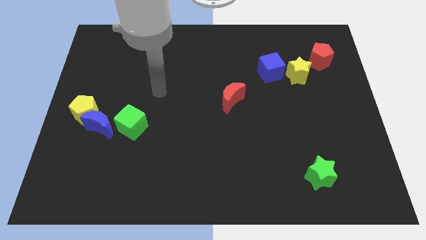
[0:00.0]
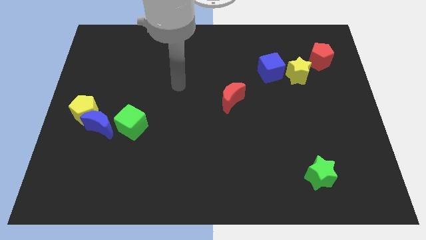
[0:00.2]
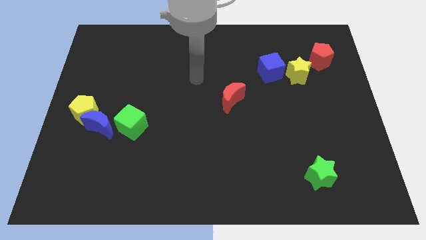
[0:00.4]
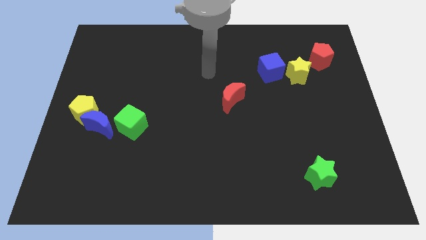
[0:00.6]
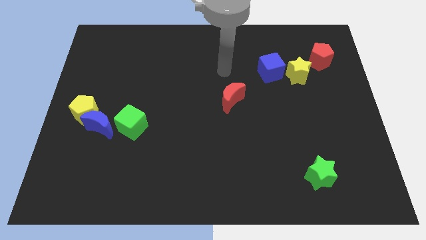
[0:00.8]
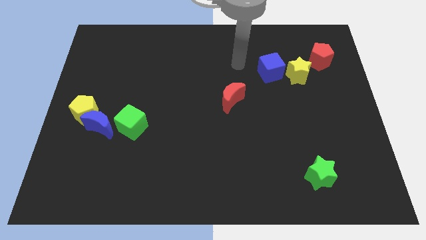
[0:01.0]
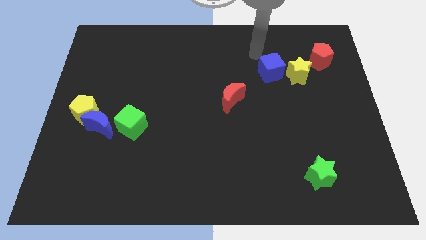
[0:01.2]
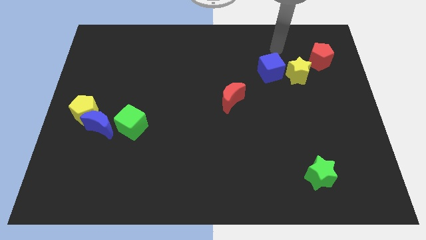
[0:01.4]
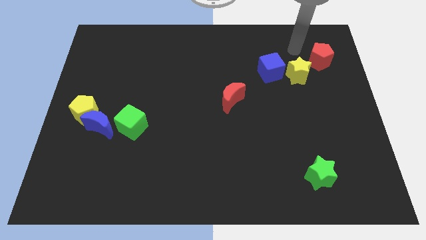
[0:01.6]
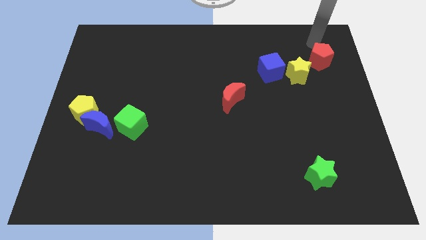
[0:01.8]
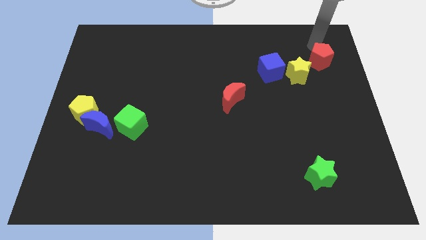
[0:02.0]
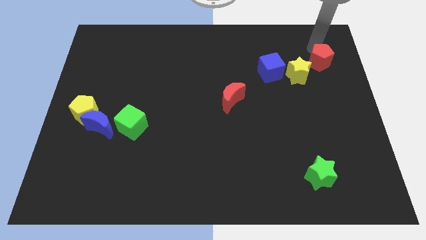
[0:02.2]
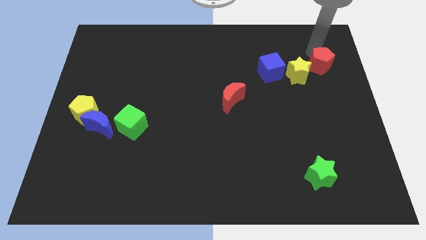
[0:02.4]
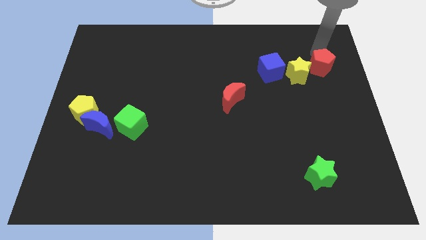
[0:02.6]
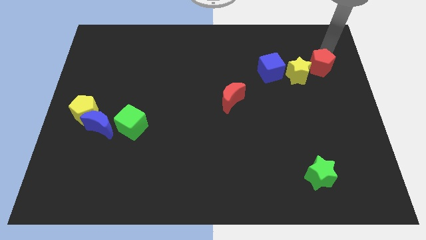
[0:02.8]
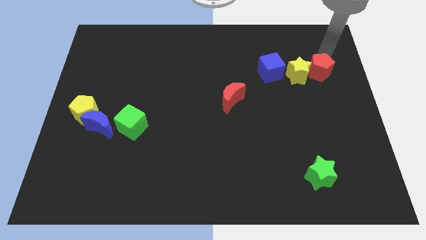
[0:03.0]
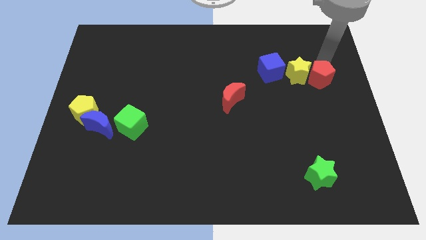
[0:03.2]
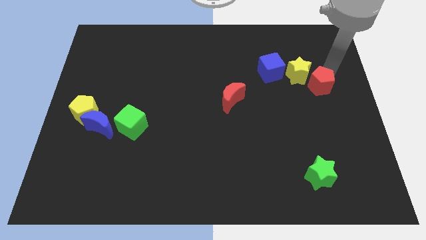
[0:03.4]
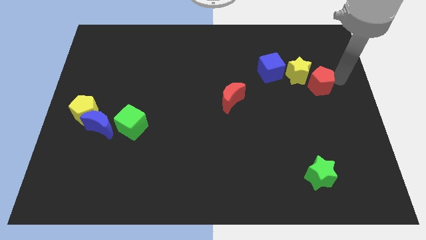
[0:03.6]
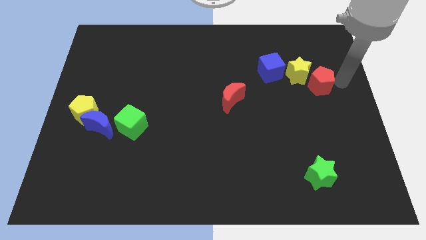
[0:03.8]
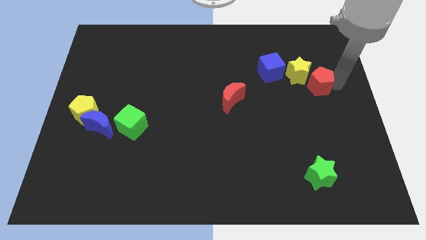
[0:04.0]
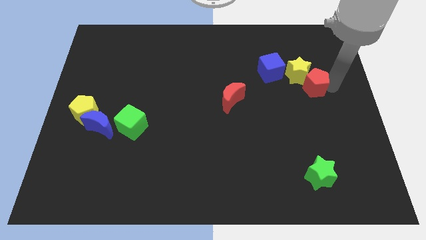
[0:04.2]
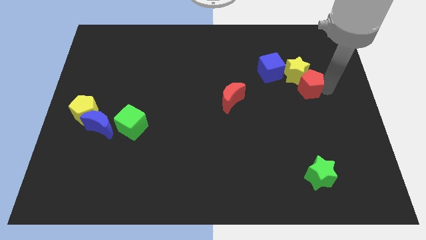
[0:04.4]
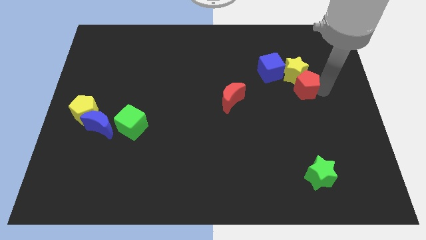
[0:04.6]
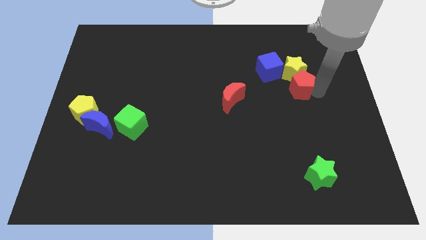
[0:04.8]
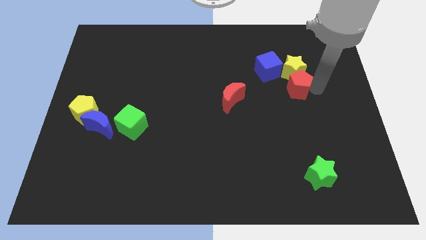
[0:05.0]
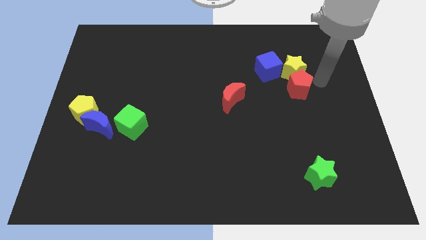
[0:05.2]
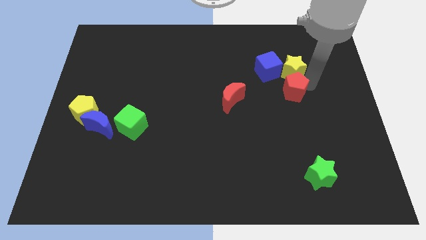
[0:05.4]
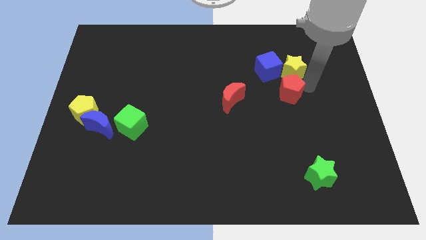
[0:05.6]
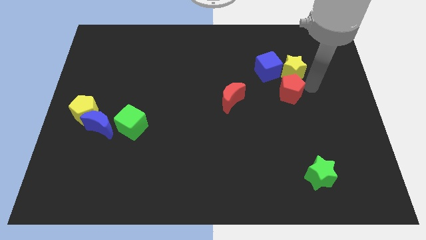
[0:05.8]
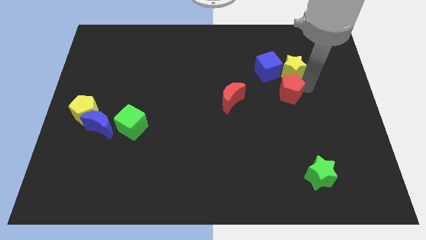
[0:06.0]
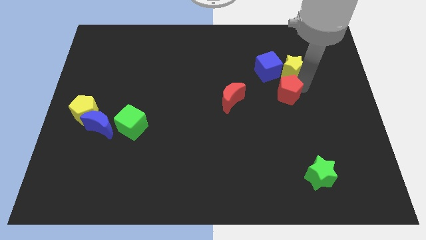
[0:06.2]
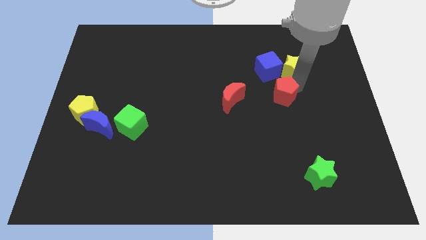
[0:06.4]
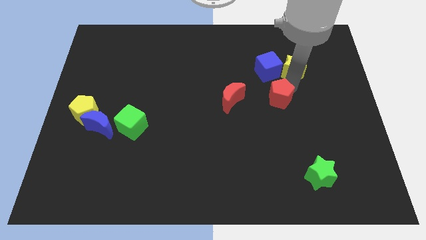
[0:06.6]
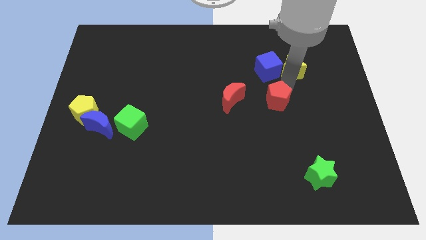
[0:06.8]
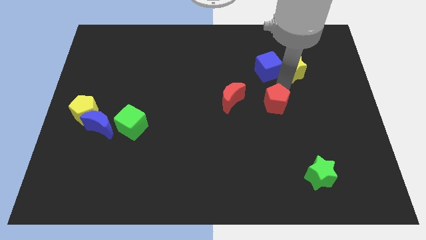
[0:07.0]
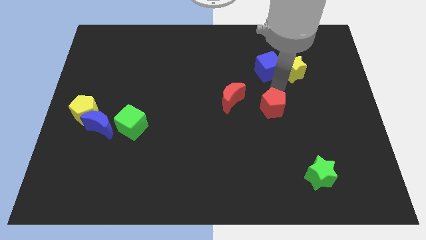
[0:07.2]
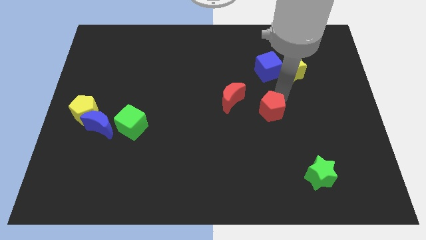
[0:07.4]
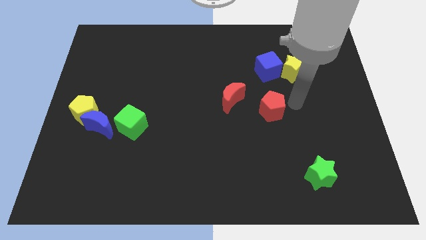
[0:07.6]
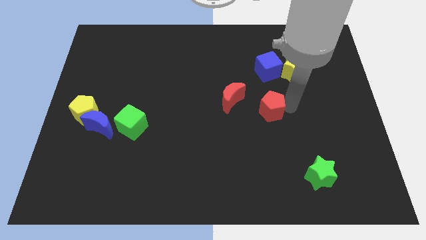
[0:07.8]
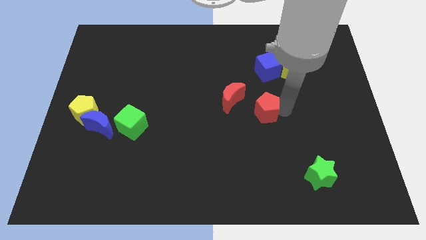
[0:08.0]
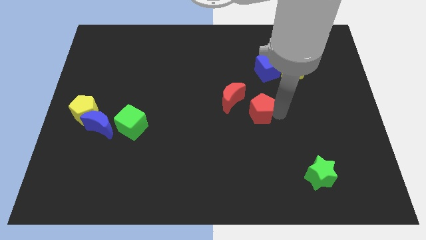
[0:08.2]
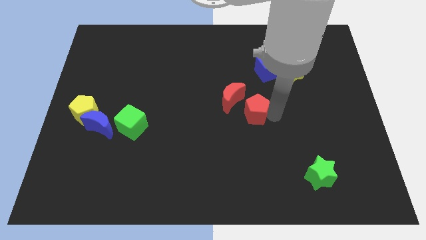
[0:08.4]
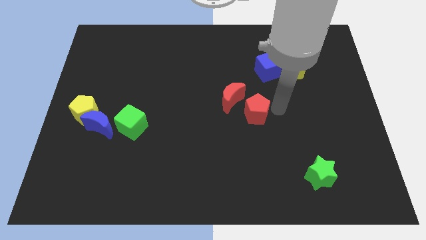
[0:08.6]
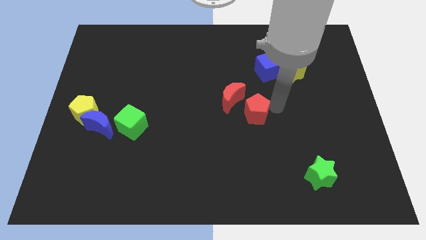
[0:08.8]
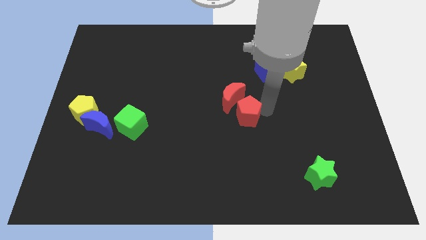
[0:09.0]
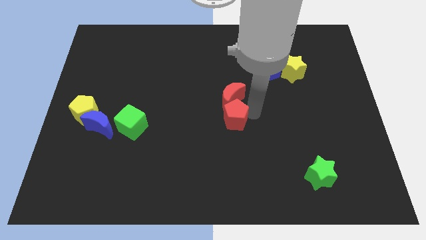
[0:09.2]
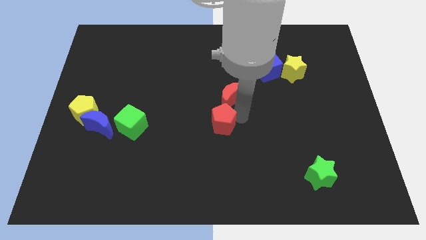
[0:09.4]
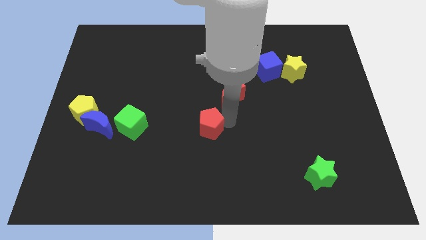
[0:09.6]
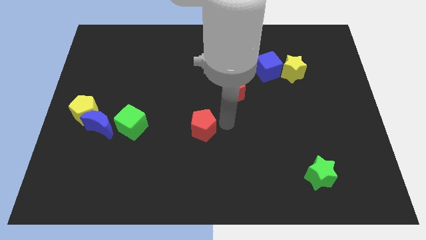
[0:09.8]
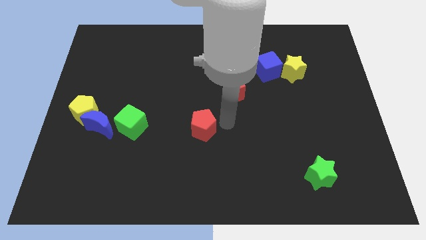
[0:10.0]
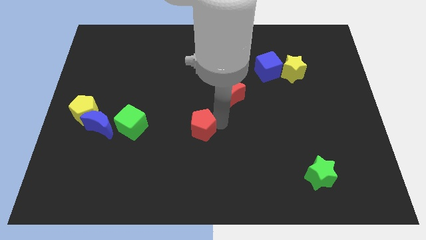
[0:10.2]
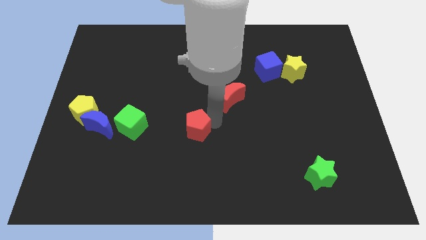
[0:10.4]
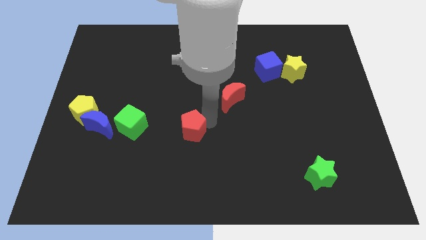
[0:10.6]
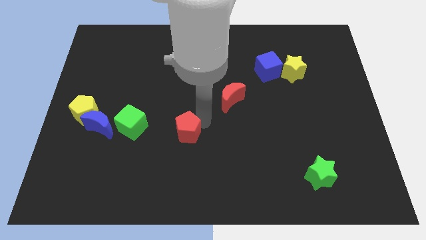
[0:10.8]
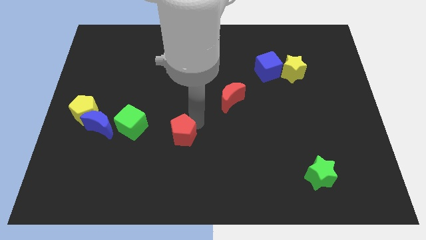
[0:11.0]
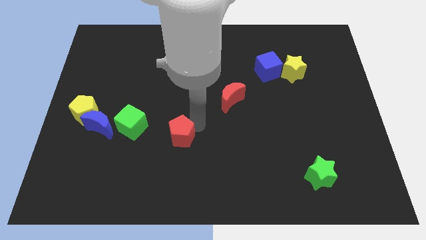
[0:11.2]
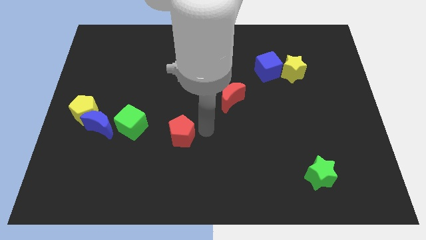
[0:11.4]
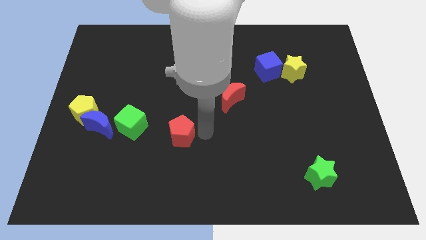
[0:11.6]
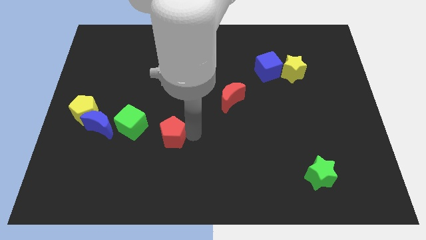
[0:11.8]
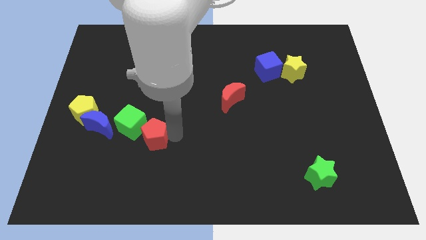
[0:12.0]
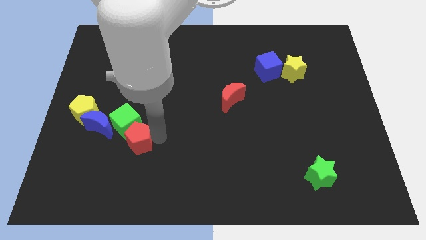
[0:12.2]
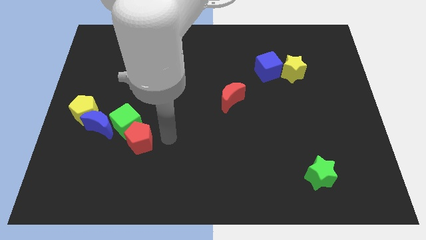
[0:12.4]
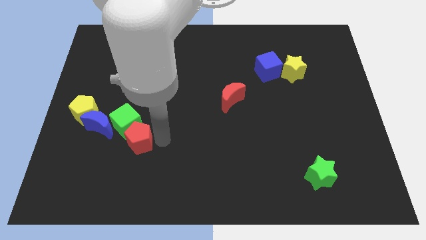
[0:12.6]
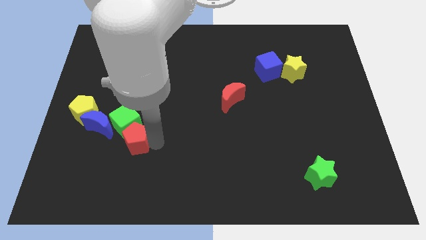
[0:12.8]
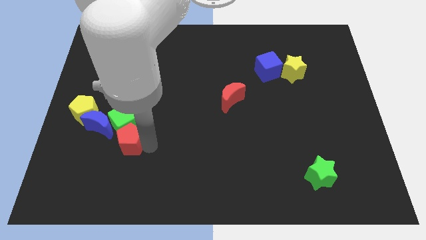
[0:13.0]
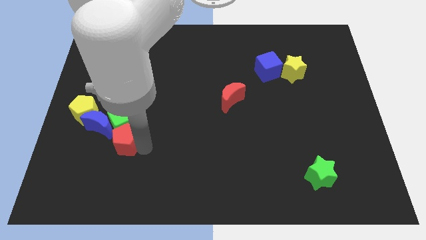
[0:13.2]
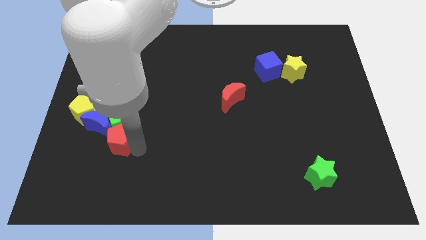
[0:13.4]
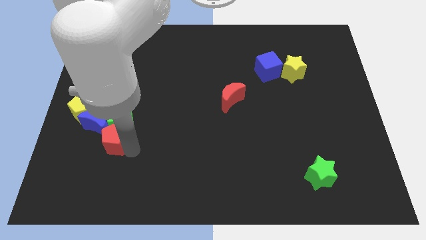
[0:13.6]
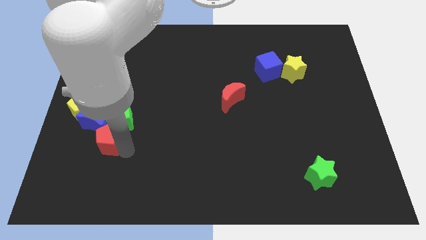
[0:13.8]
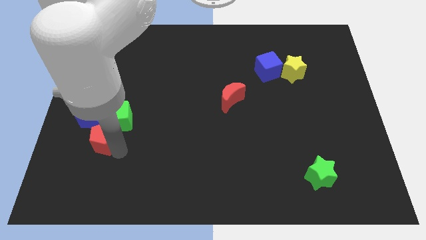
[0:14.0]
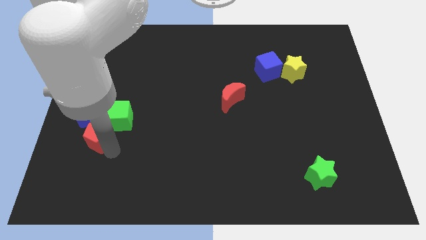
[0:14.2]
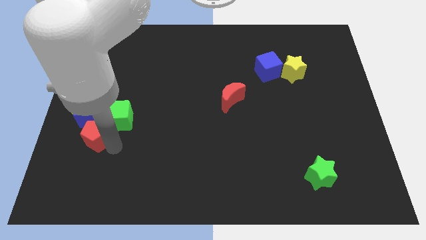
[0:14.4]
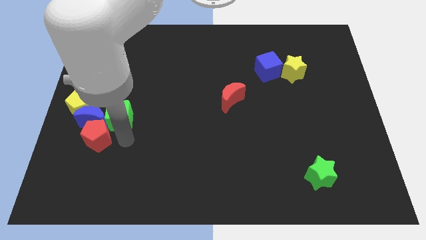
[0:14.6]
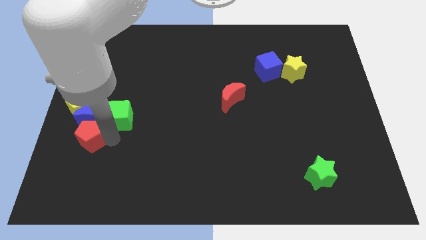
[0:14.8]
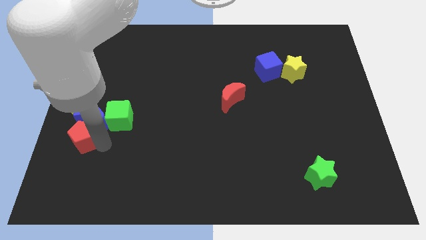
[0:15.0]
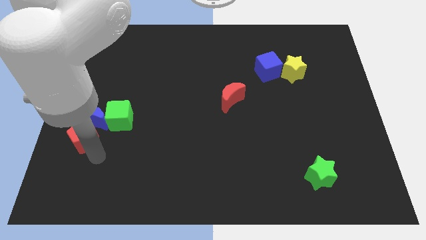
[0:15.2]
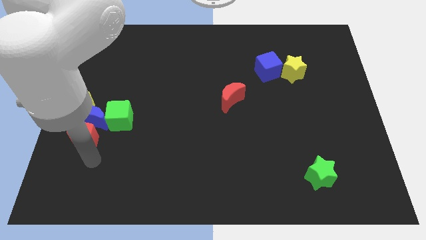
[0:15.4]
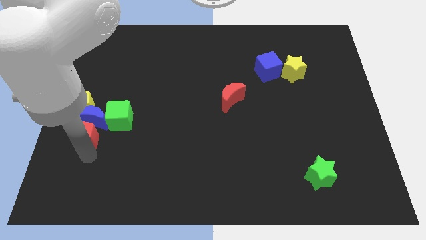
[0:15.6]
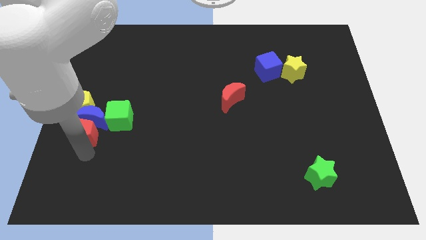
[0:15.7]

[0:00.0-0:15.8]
move the red pentagon left of the green cube
